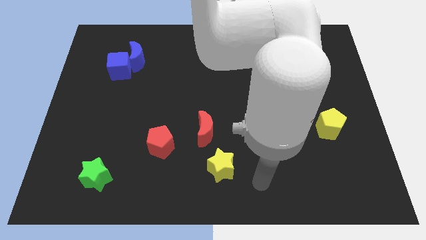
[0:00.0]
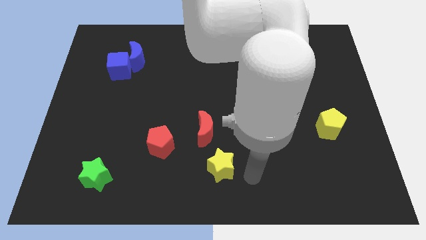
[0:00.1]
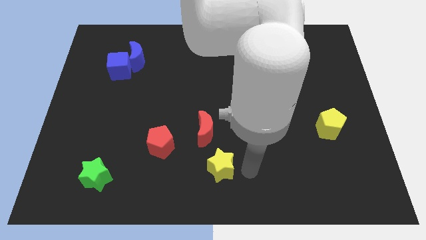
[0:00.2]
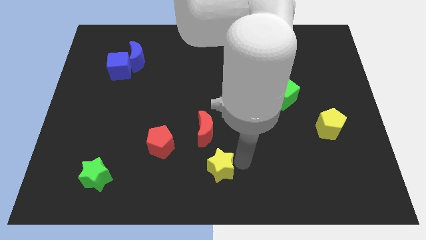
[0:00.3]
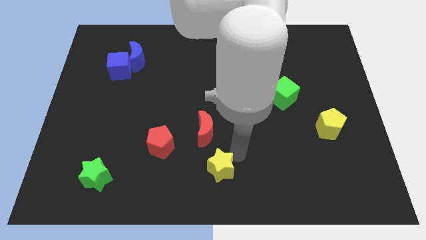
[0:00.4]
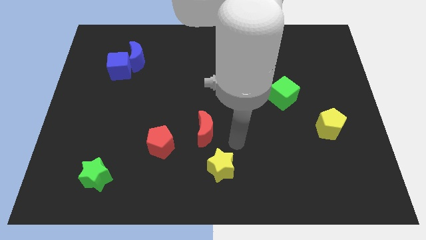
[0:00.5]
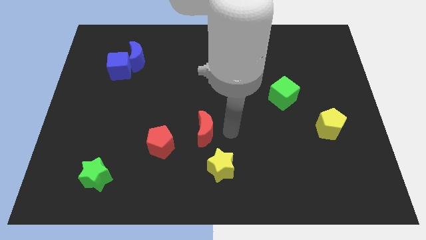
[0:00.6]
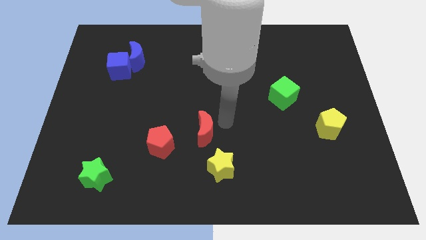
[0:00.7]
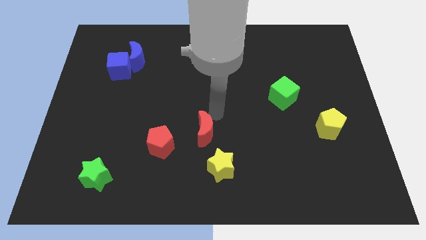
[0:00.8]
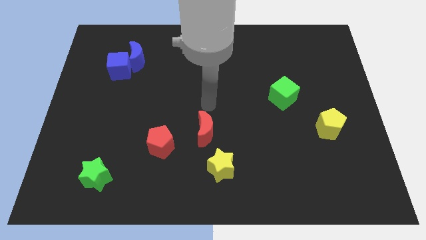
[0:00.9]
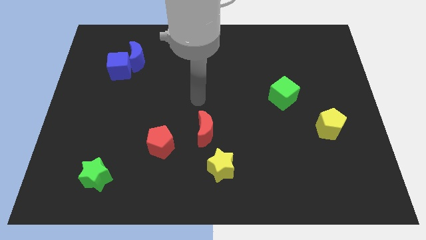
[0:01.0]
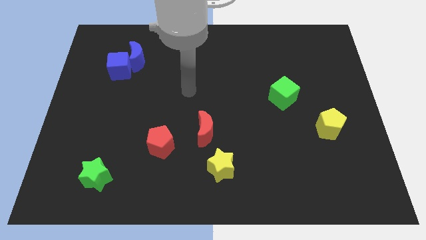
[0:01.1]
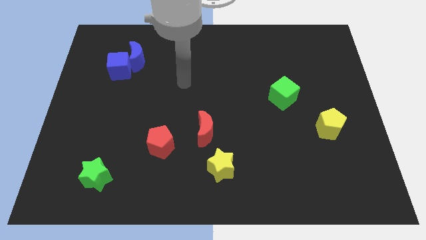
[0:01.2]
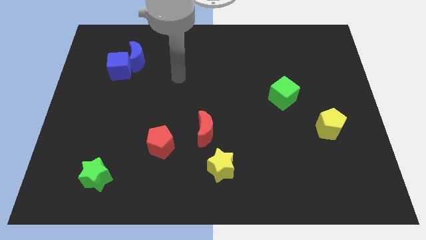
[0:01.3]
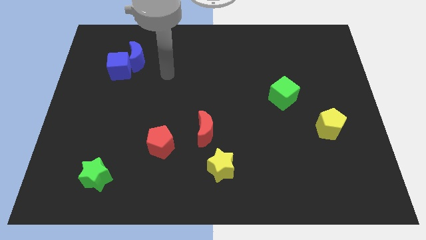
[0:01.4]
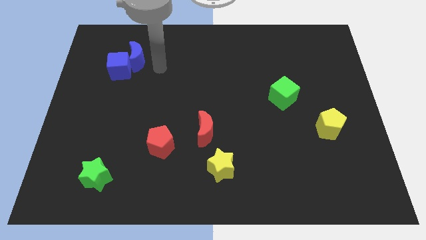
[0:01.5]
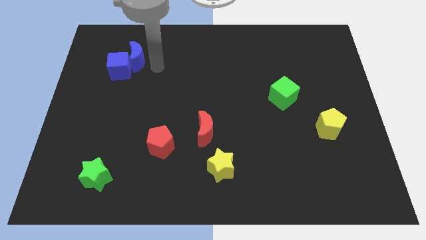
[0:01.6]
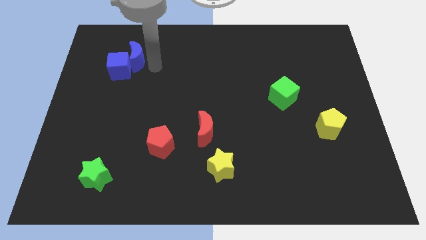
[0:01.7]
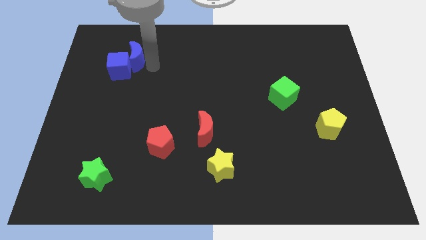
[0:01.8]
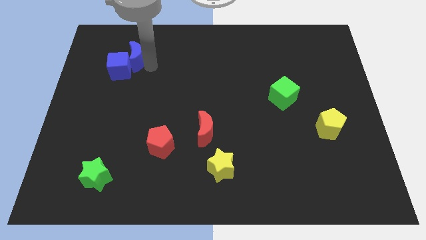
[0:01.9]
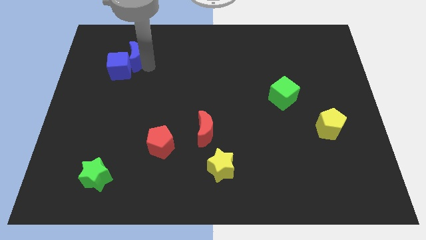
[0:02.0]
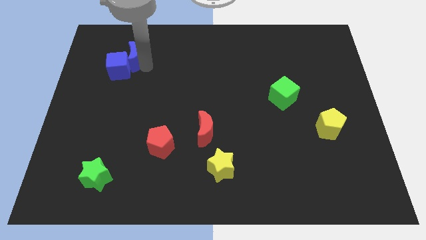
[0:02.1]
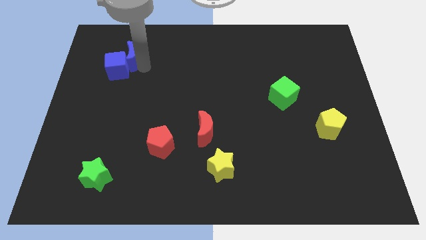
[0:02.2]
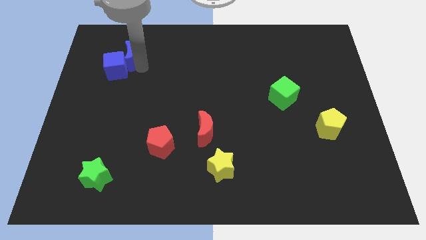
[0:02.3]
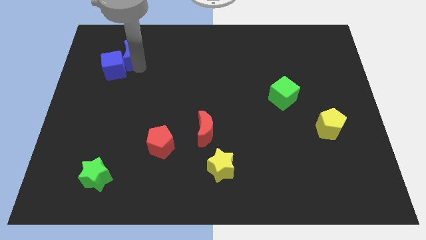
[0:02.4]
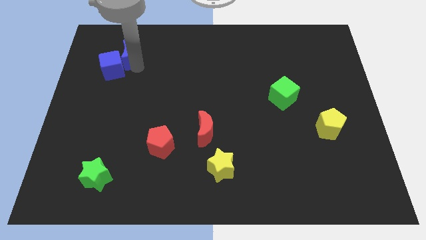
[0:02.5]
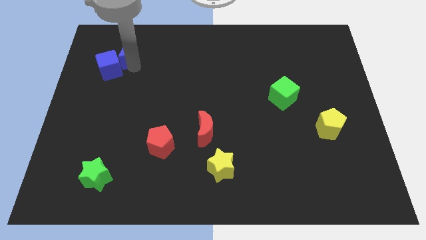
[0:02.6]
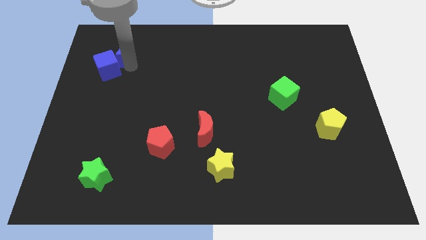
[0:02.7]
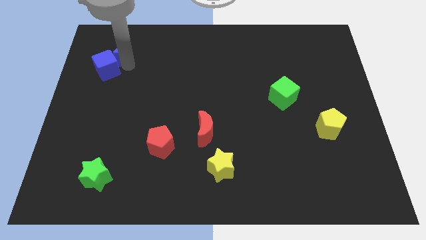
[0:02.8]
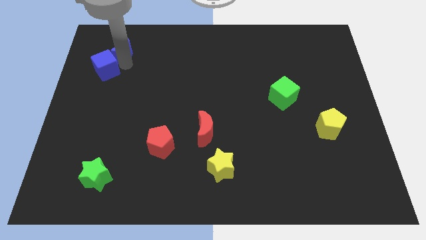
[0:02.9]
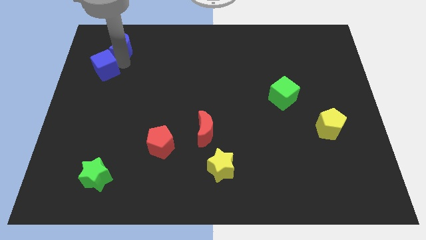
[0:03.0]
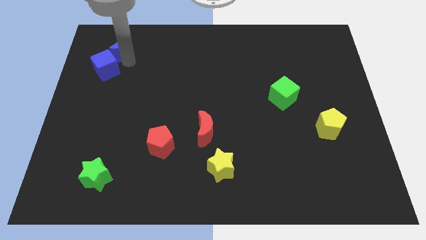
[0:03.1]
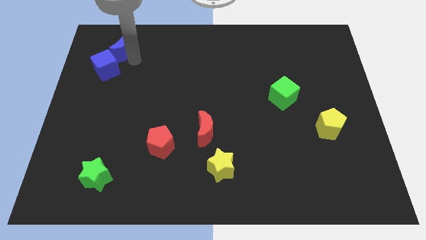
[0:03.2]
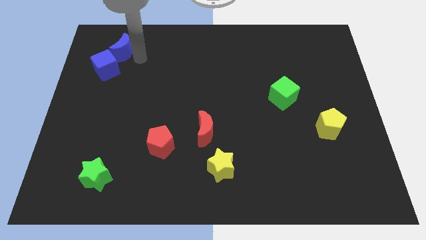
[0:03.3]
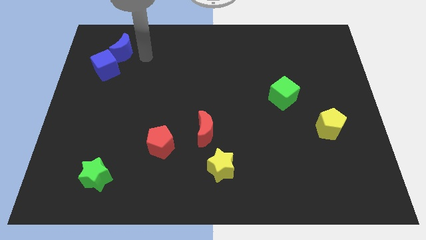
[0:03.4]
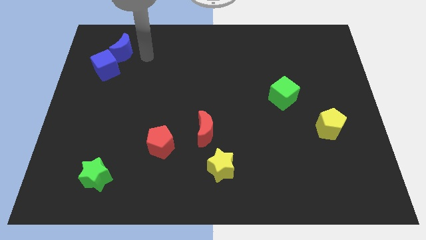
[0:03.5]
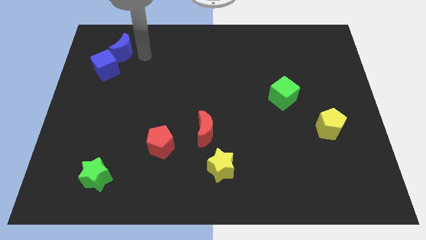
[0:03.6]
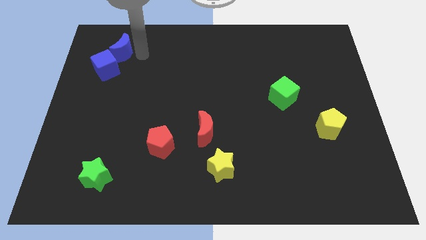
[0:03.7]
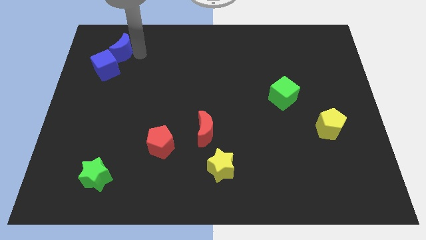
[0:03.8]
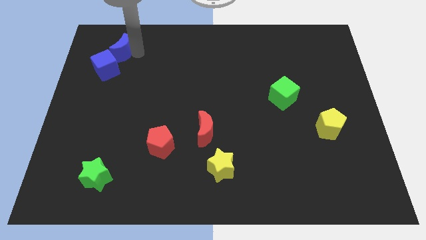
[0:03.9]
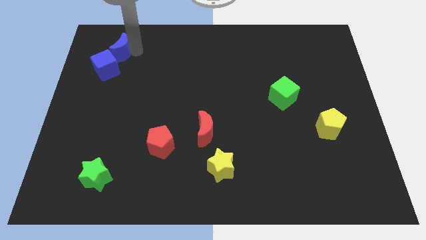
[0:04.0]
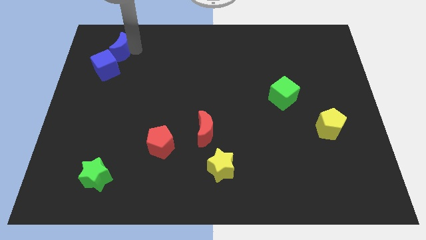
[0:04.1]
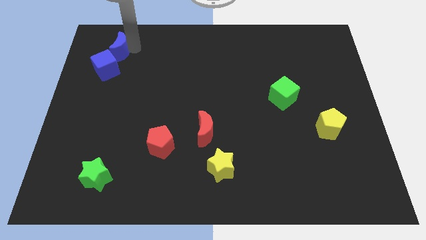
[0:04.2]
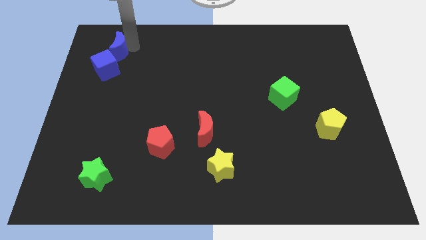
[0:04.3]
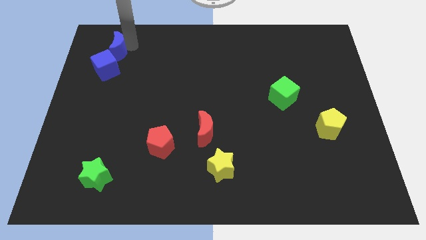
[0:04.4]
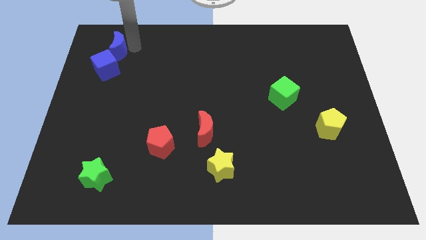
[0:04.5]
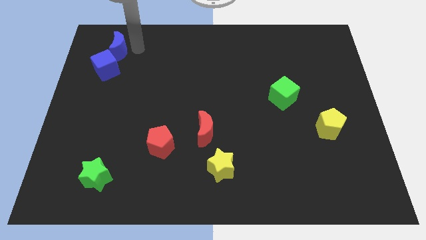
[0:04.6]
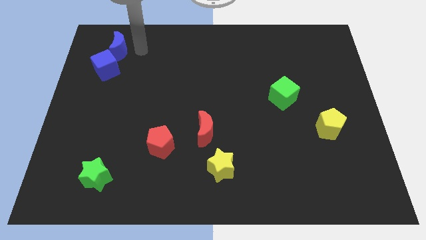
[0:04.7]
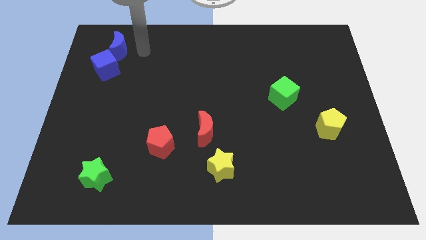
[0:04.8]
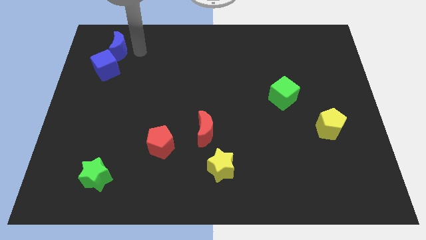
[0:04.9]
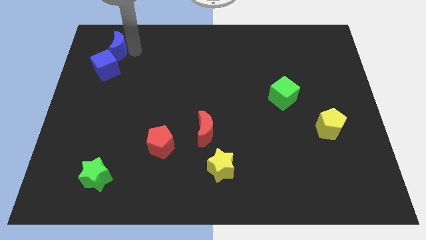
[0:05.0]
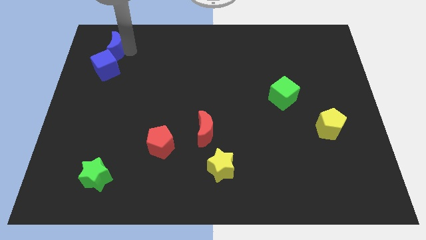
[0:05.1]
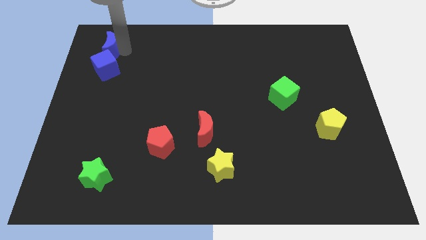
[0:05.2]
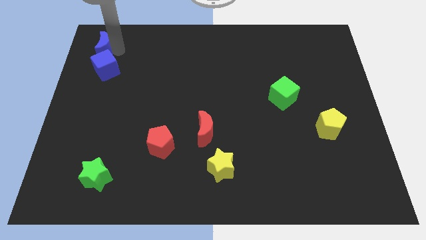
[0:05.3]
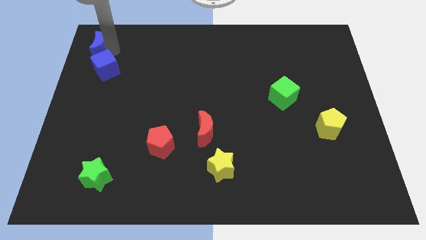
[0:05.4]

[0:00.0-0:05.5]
move the blue moon to the upper left corner

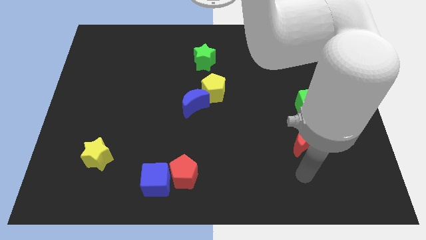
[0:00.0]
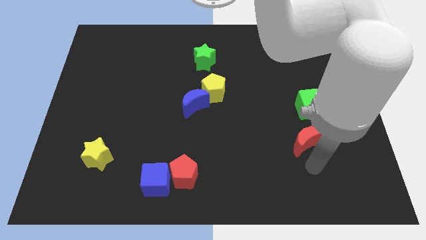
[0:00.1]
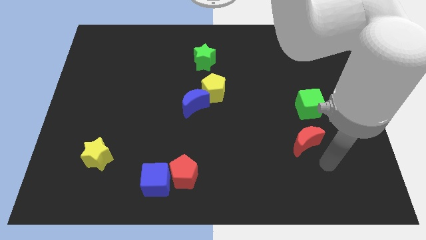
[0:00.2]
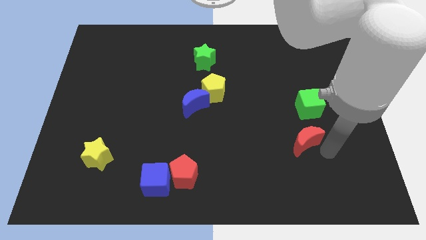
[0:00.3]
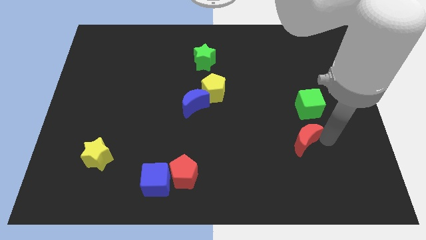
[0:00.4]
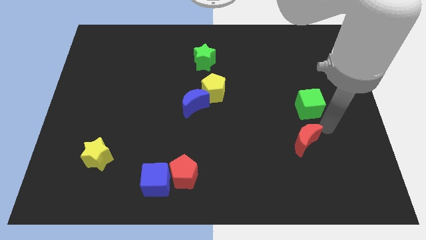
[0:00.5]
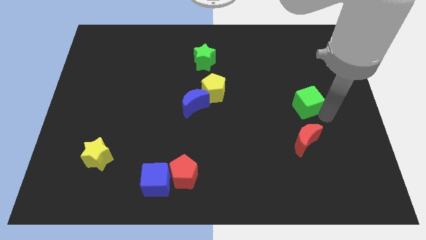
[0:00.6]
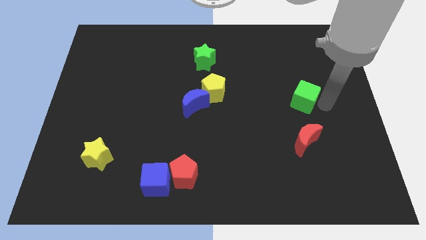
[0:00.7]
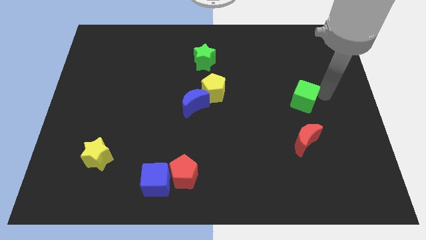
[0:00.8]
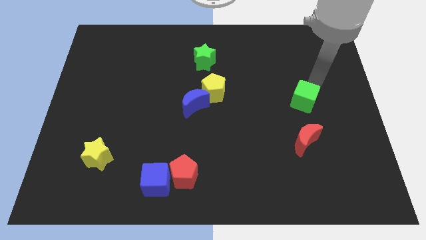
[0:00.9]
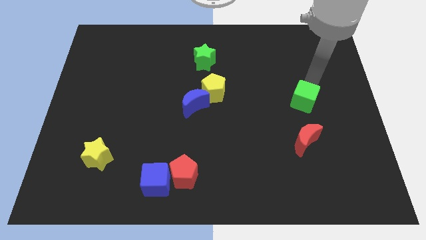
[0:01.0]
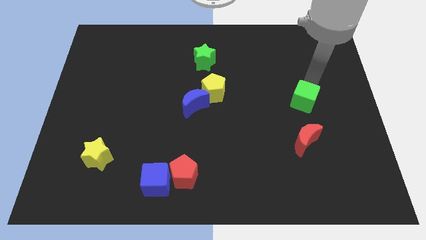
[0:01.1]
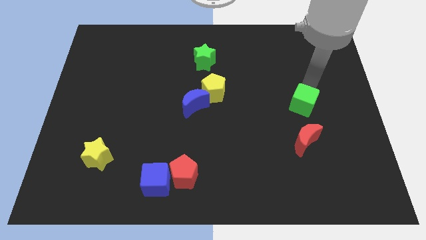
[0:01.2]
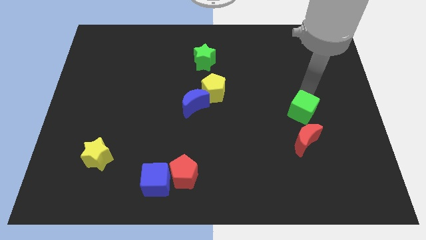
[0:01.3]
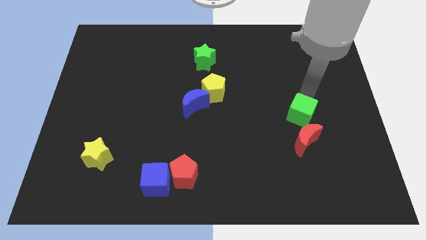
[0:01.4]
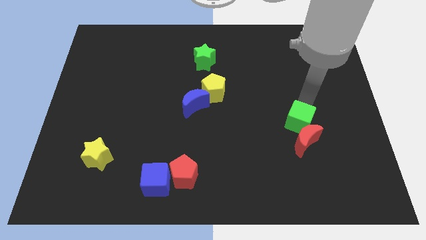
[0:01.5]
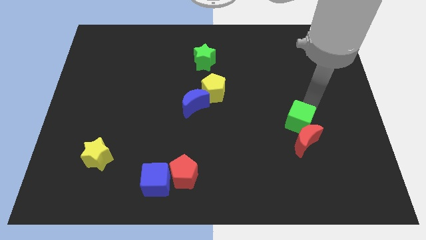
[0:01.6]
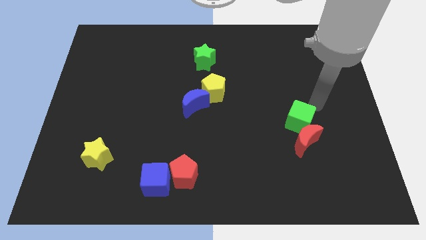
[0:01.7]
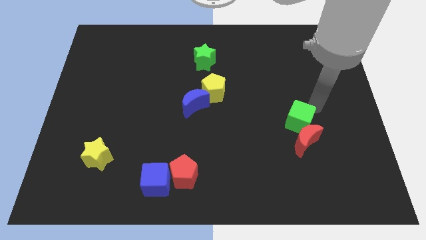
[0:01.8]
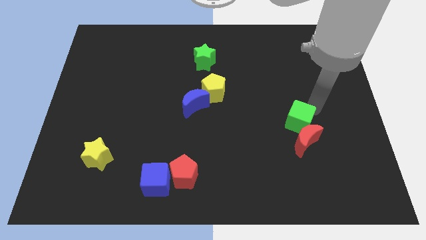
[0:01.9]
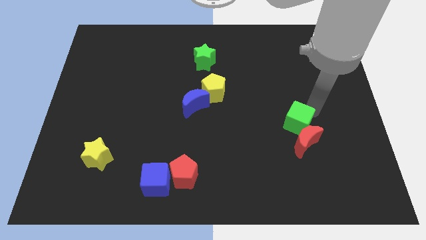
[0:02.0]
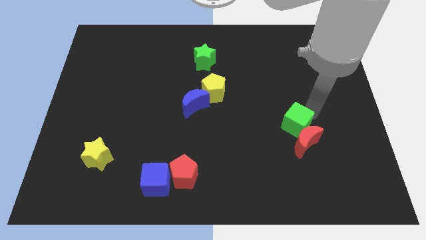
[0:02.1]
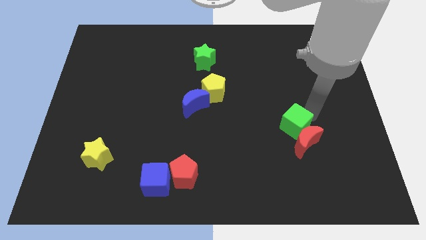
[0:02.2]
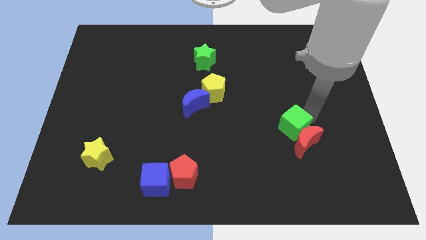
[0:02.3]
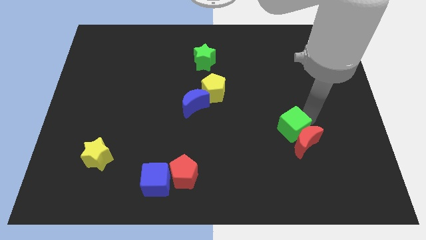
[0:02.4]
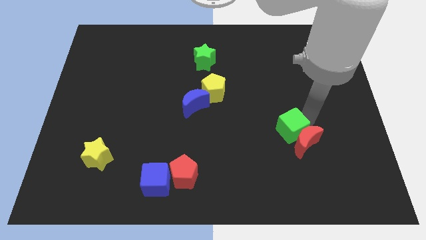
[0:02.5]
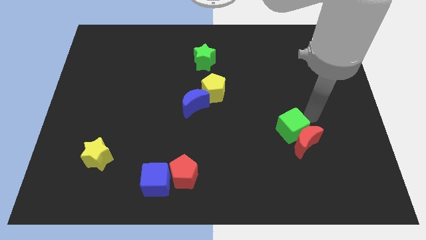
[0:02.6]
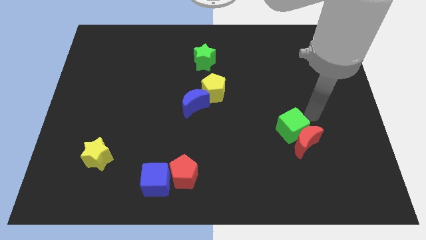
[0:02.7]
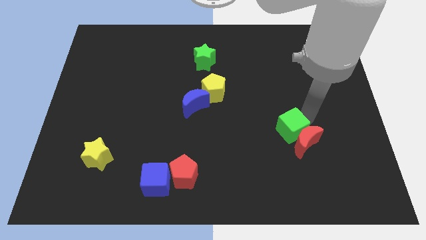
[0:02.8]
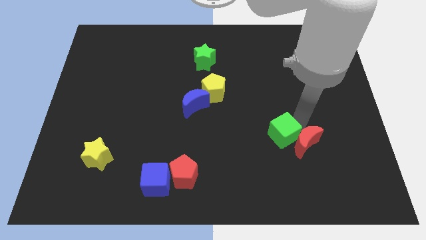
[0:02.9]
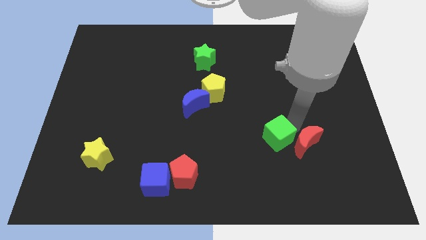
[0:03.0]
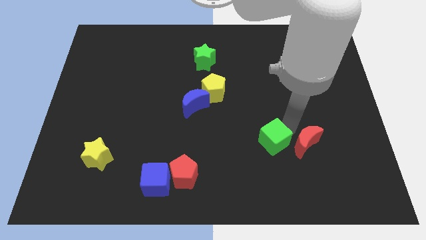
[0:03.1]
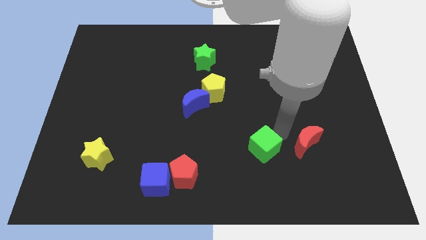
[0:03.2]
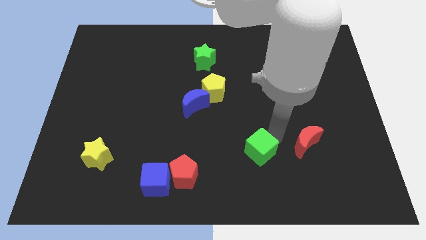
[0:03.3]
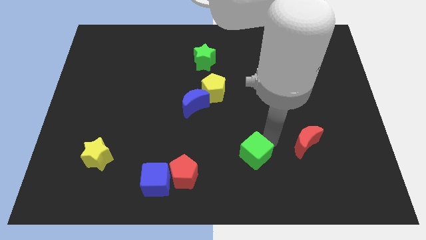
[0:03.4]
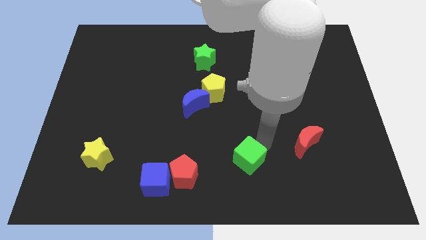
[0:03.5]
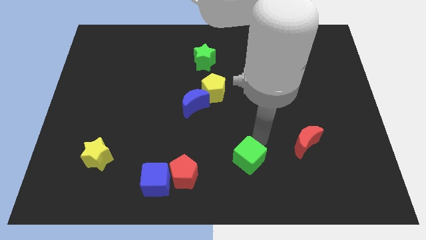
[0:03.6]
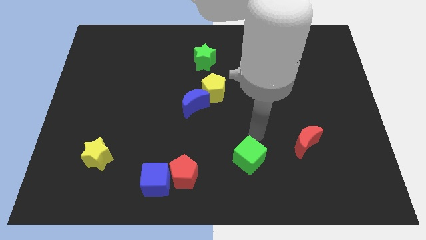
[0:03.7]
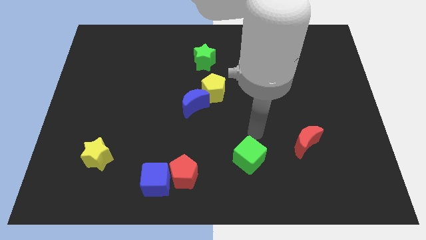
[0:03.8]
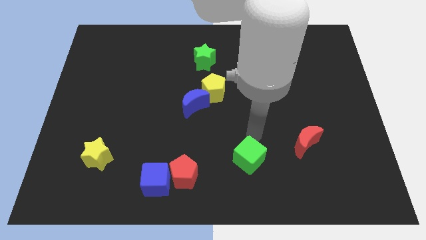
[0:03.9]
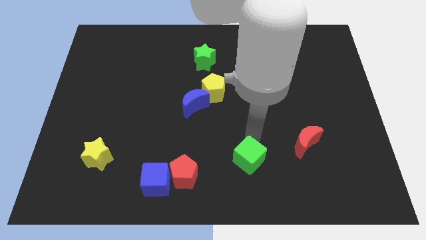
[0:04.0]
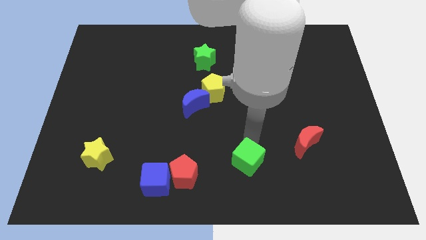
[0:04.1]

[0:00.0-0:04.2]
put the green cube to the bottom
